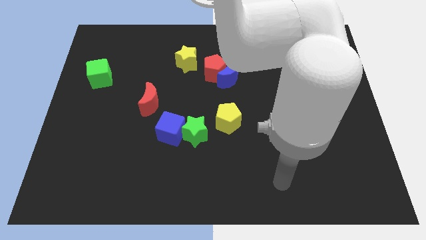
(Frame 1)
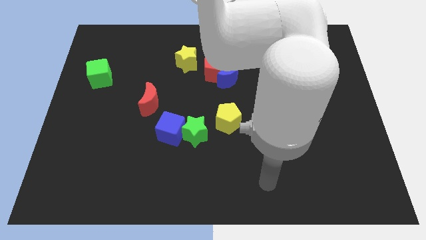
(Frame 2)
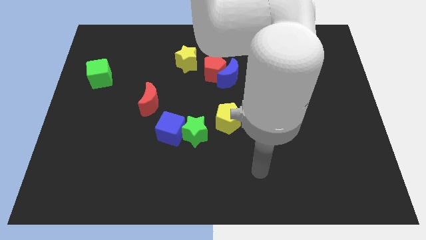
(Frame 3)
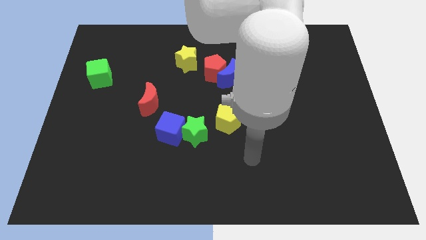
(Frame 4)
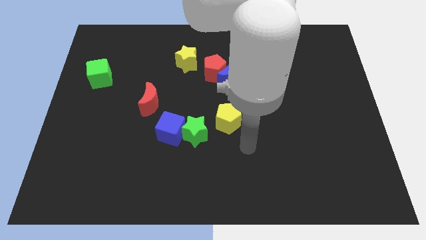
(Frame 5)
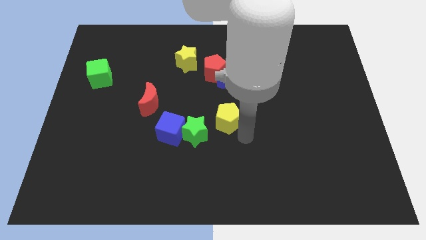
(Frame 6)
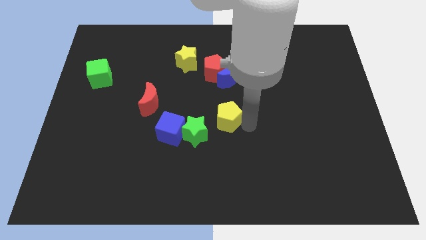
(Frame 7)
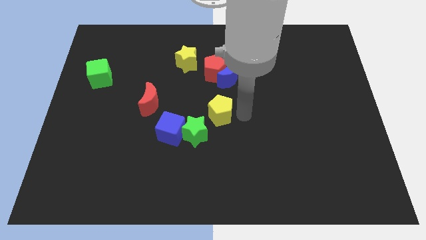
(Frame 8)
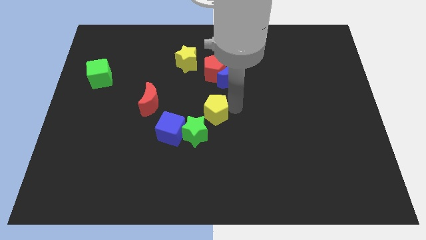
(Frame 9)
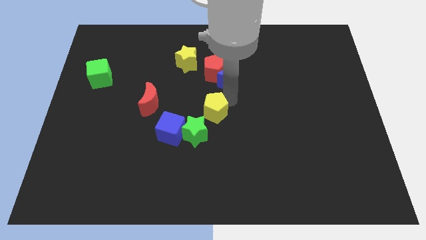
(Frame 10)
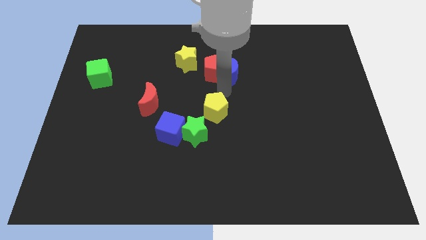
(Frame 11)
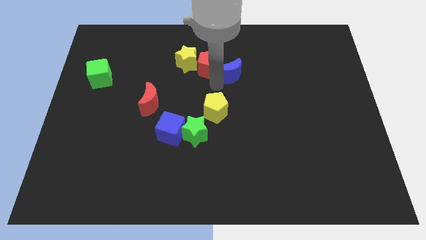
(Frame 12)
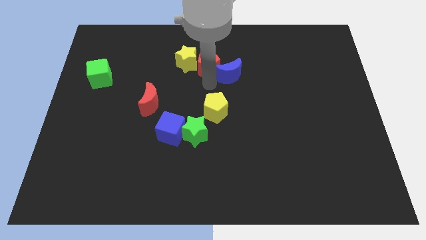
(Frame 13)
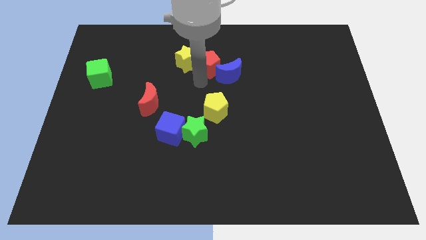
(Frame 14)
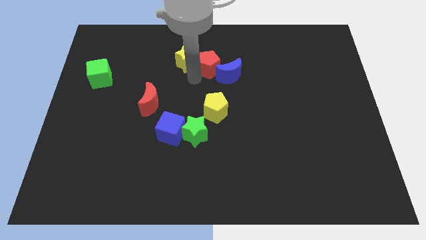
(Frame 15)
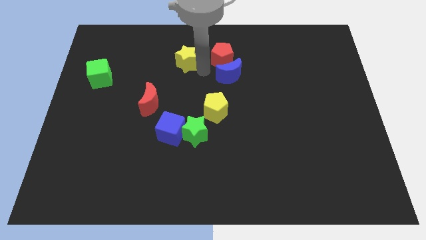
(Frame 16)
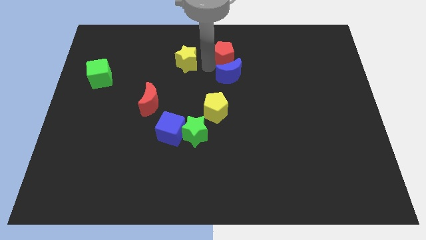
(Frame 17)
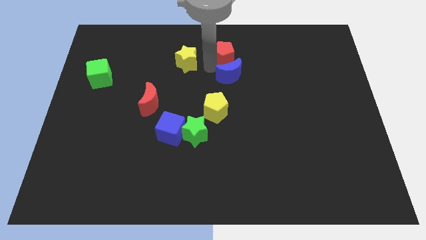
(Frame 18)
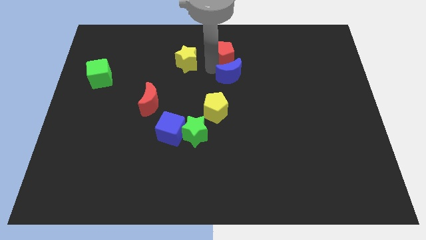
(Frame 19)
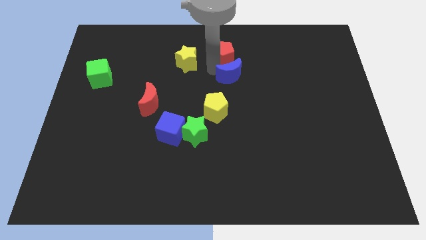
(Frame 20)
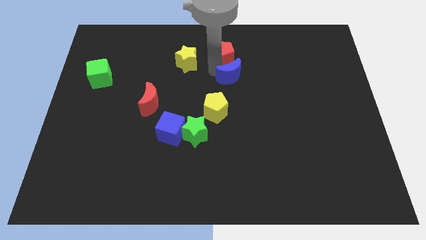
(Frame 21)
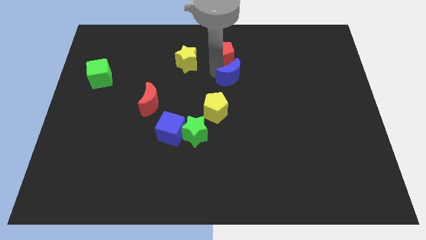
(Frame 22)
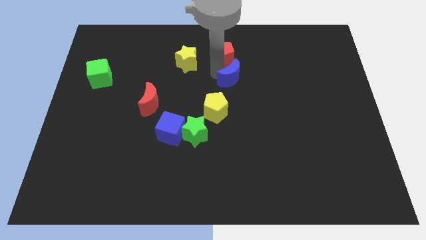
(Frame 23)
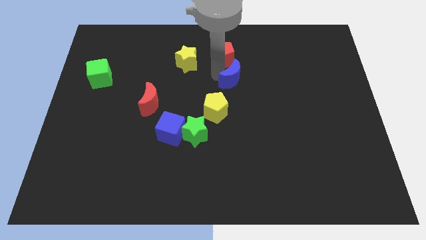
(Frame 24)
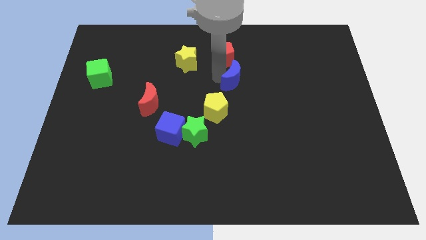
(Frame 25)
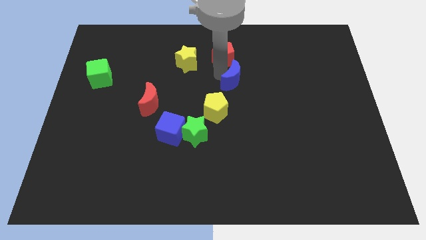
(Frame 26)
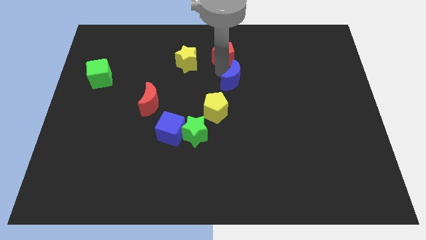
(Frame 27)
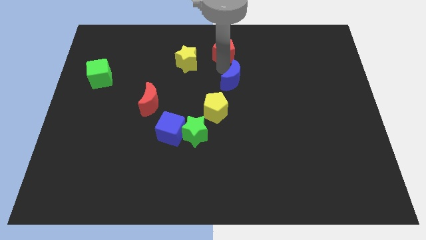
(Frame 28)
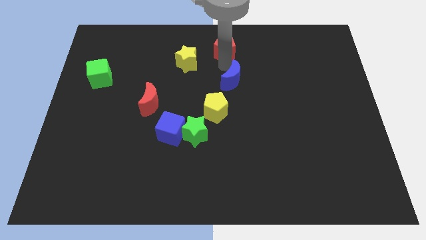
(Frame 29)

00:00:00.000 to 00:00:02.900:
separate the blue moon from the red pentagon

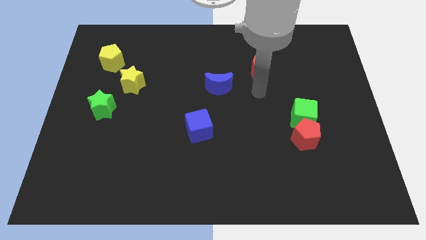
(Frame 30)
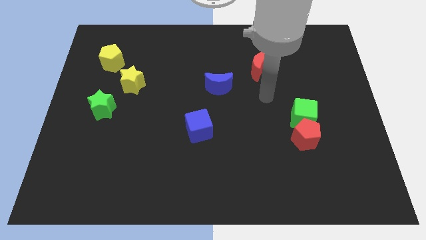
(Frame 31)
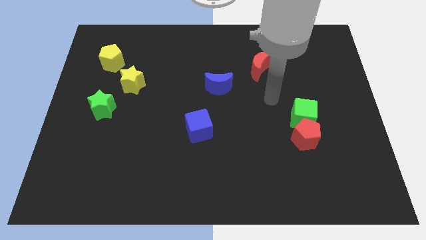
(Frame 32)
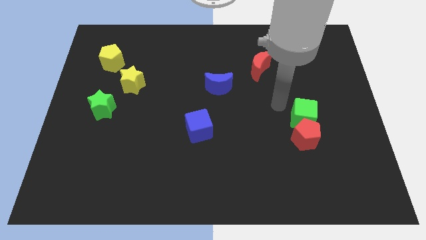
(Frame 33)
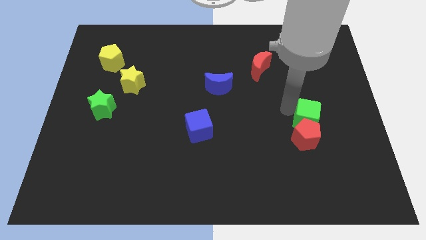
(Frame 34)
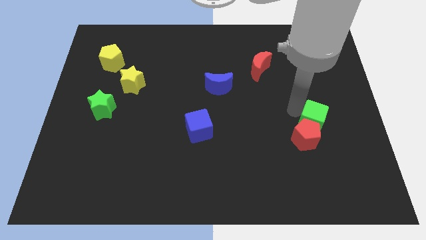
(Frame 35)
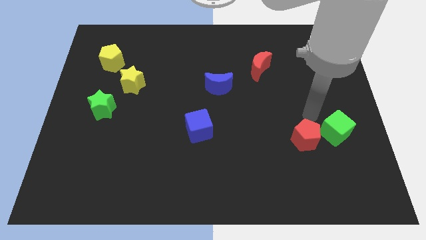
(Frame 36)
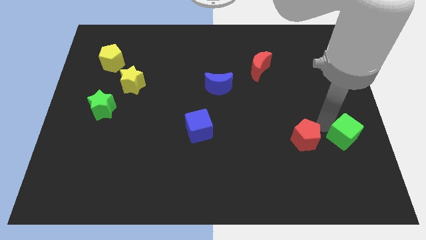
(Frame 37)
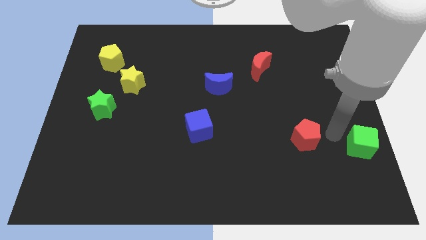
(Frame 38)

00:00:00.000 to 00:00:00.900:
pull the red pentagon apart from the green cube

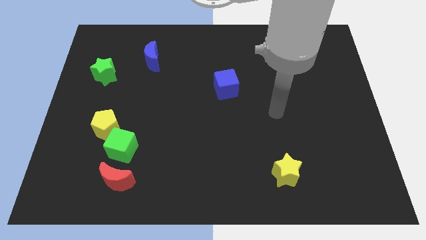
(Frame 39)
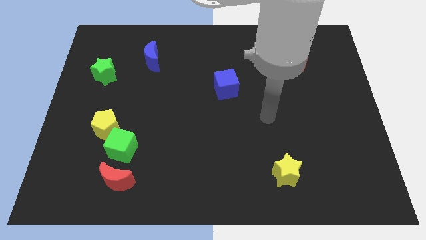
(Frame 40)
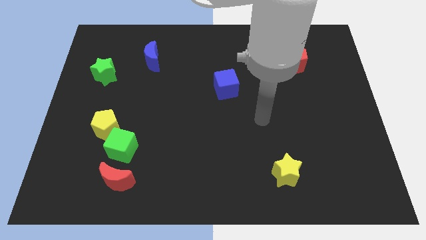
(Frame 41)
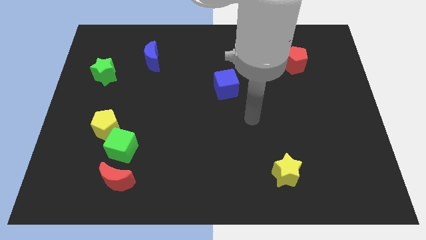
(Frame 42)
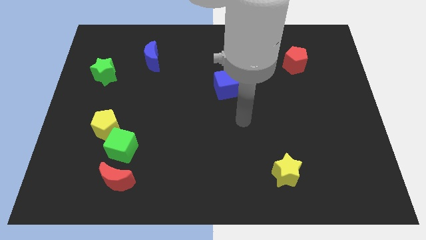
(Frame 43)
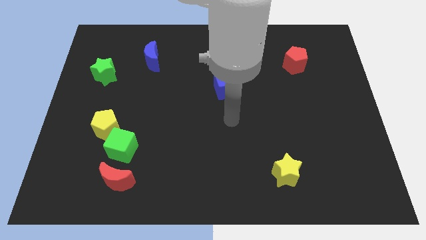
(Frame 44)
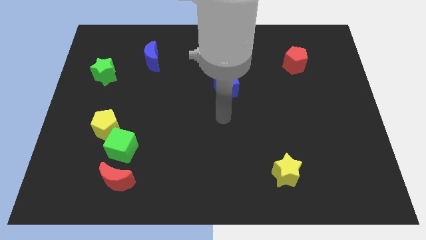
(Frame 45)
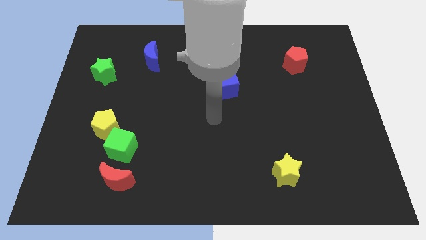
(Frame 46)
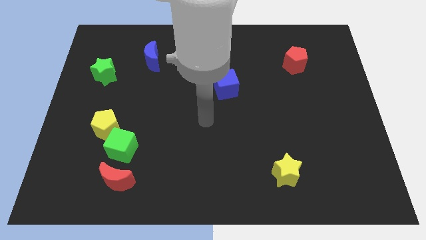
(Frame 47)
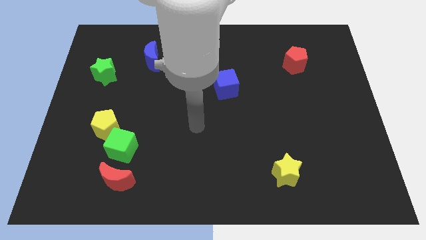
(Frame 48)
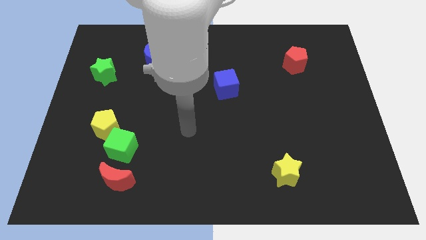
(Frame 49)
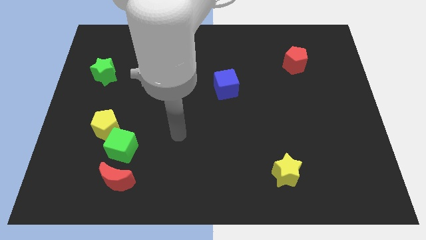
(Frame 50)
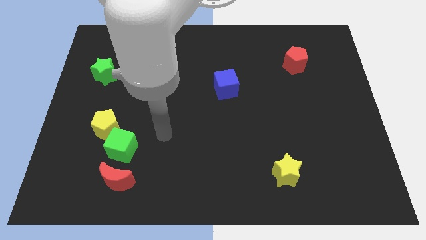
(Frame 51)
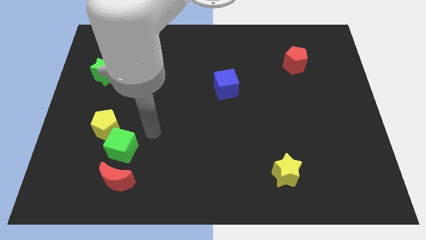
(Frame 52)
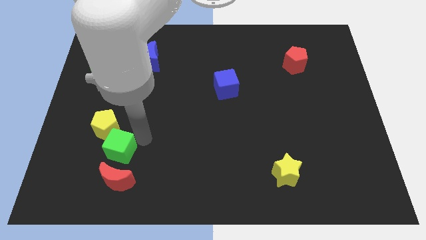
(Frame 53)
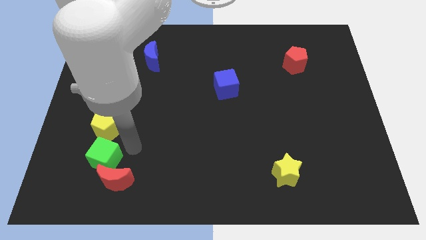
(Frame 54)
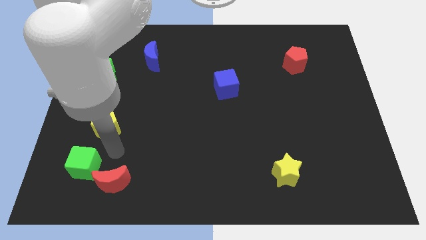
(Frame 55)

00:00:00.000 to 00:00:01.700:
move the yellow pentagon away from the green cube

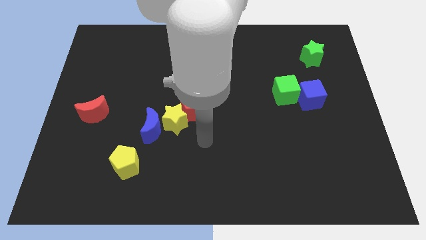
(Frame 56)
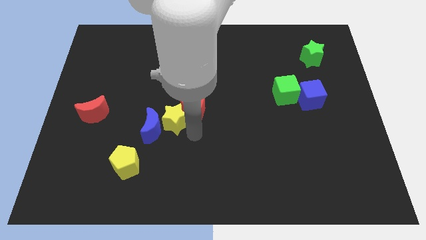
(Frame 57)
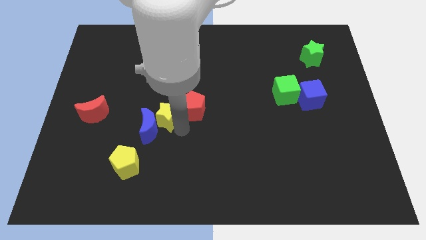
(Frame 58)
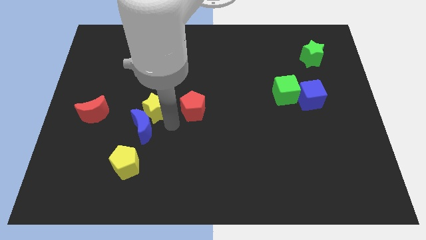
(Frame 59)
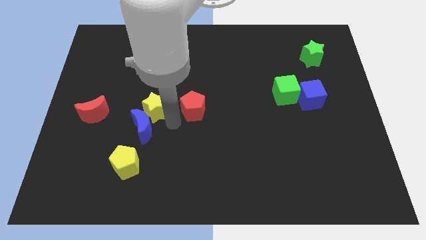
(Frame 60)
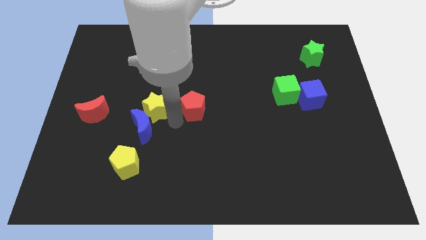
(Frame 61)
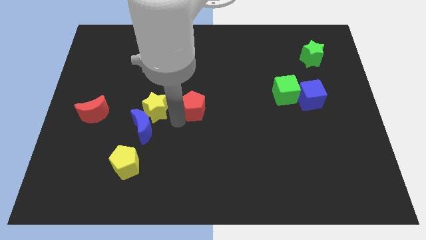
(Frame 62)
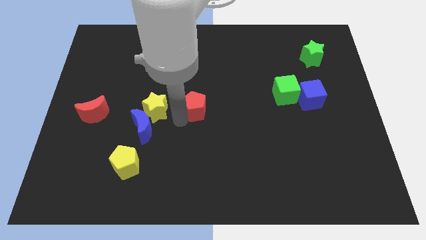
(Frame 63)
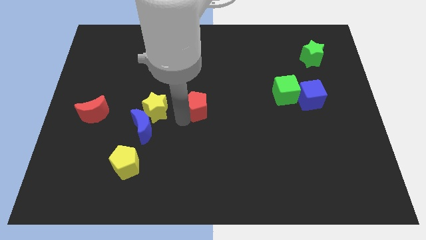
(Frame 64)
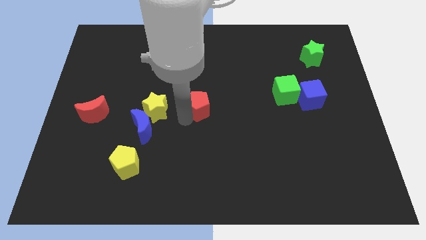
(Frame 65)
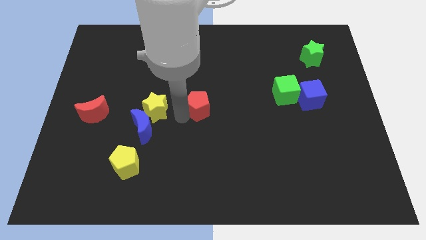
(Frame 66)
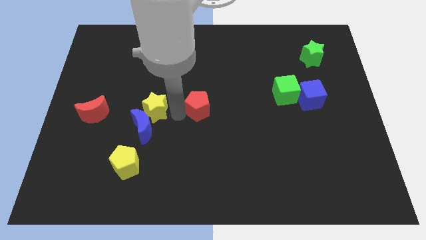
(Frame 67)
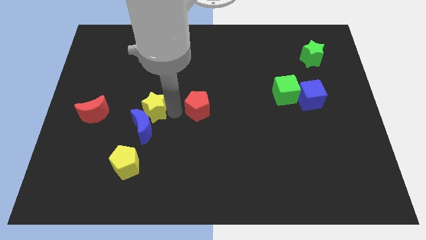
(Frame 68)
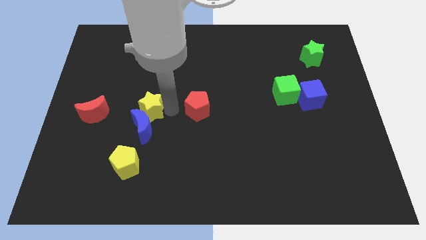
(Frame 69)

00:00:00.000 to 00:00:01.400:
move the red pentagon away from the yellow star

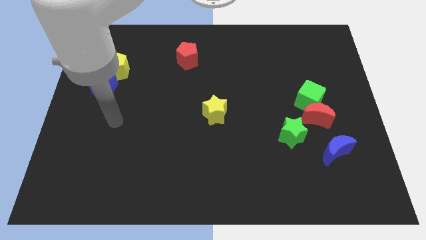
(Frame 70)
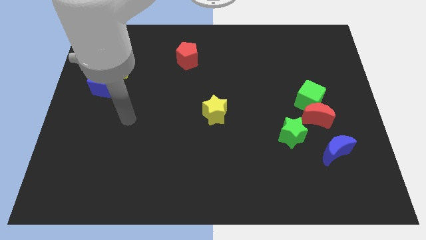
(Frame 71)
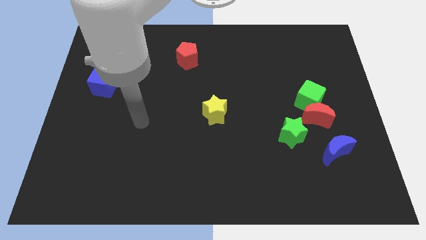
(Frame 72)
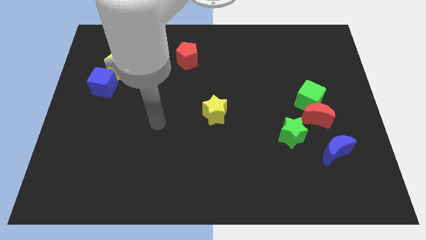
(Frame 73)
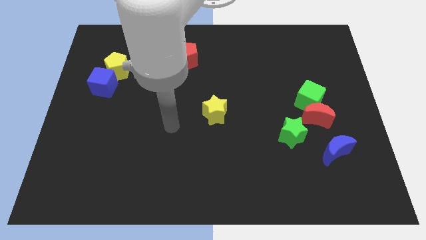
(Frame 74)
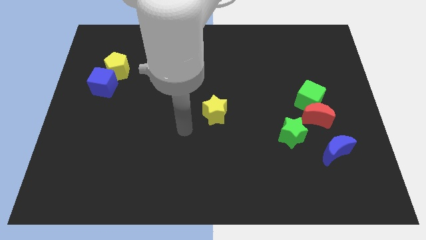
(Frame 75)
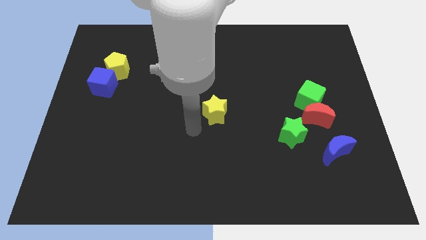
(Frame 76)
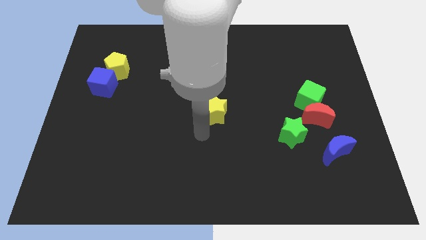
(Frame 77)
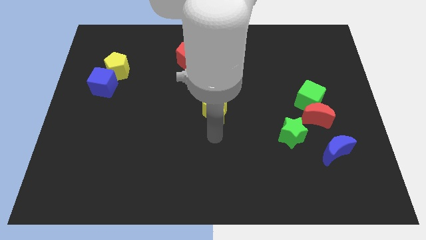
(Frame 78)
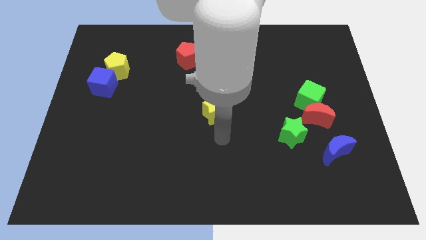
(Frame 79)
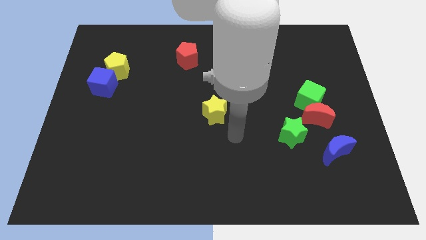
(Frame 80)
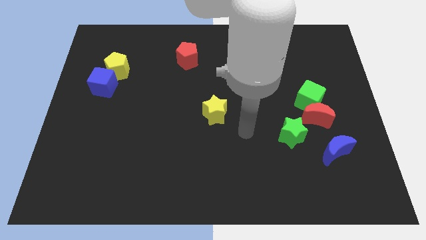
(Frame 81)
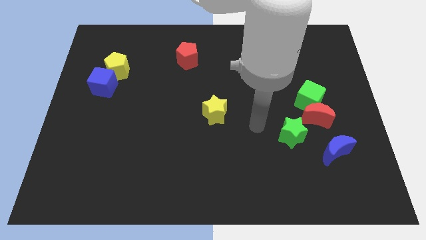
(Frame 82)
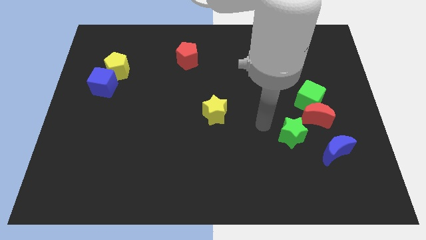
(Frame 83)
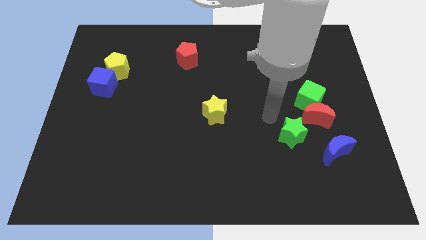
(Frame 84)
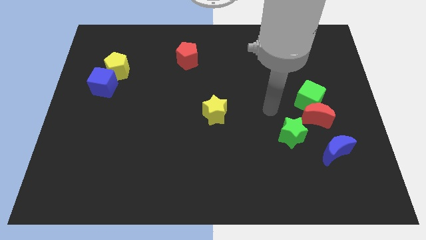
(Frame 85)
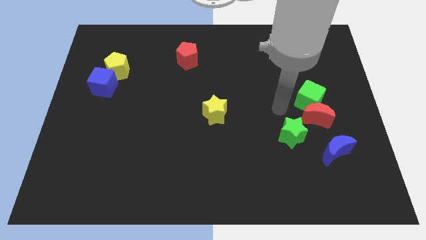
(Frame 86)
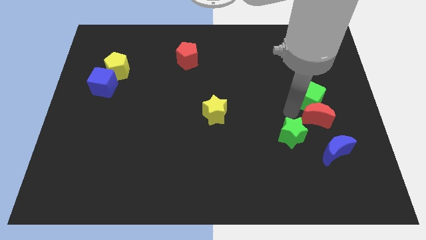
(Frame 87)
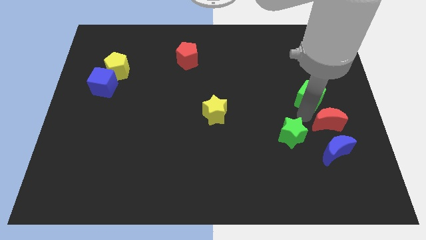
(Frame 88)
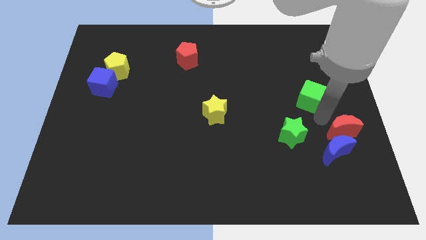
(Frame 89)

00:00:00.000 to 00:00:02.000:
move the green cube away from the red moon

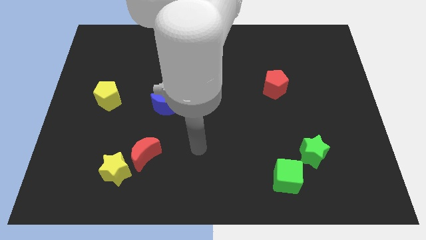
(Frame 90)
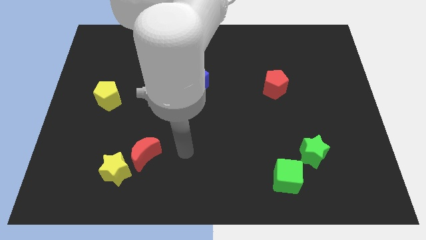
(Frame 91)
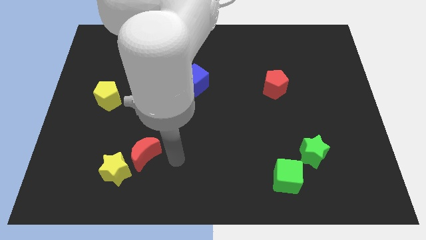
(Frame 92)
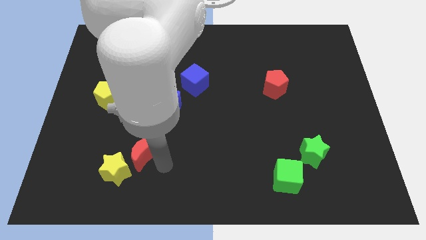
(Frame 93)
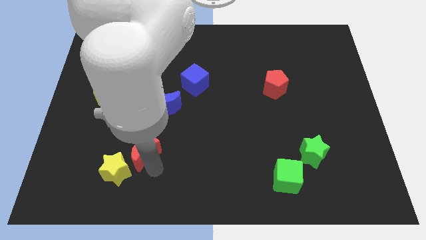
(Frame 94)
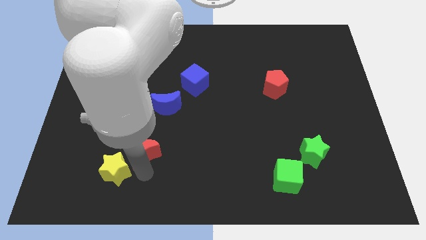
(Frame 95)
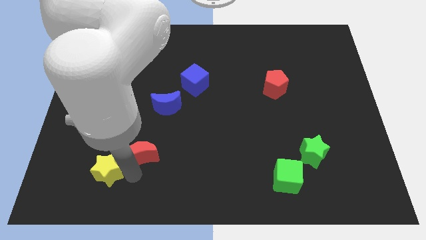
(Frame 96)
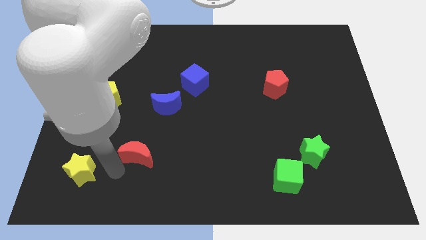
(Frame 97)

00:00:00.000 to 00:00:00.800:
separate the red moon from the yellow star
